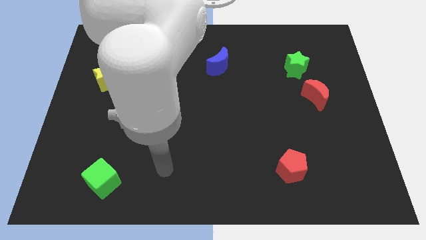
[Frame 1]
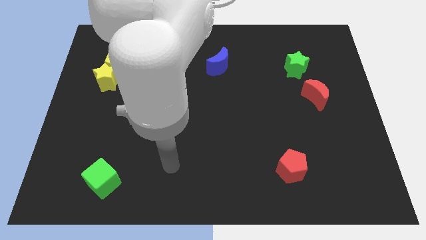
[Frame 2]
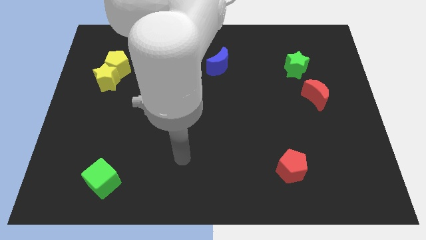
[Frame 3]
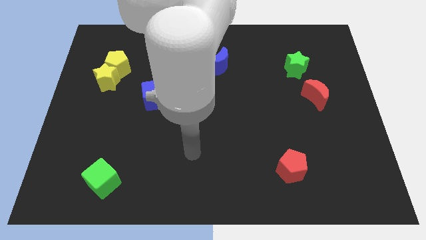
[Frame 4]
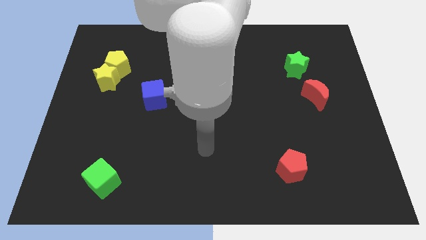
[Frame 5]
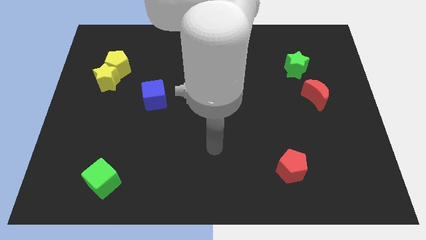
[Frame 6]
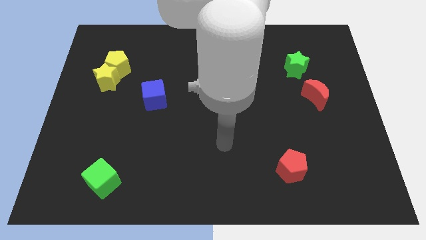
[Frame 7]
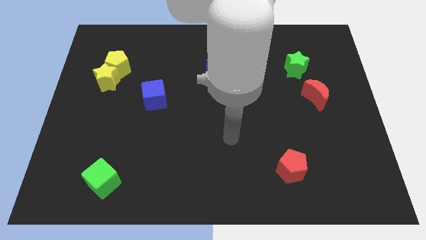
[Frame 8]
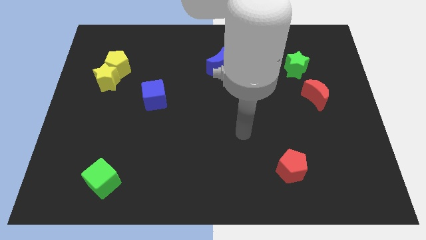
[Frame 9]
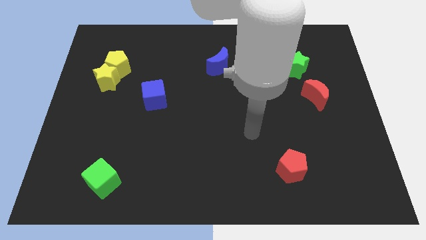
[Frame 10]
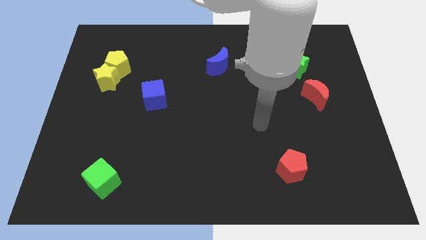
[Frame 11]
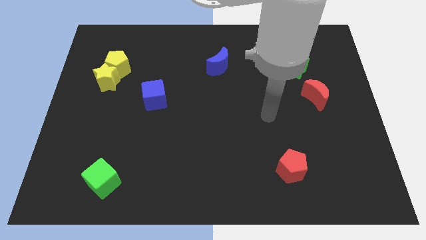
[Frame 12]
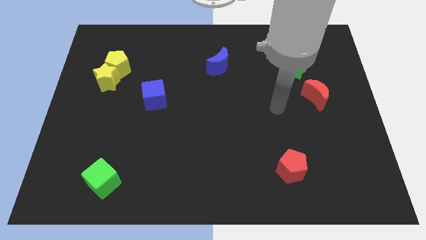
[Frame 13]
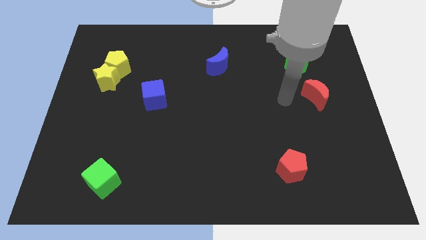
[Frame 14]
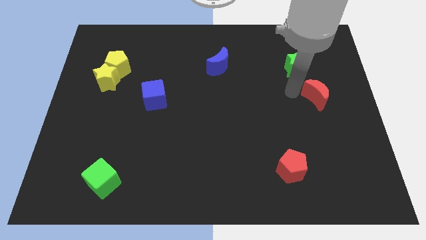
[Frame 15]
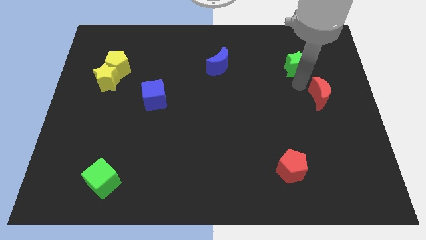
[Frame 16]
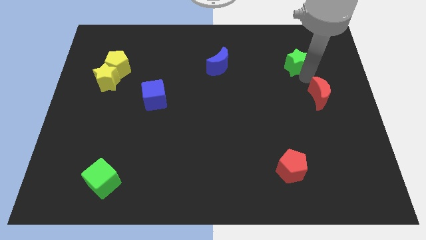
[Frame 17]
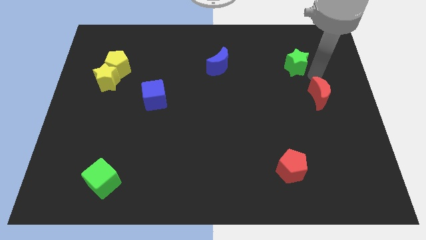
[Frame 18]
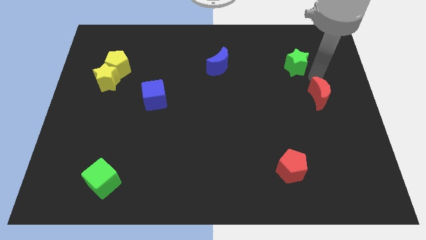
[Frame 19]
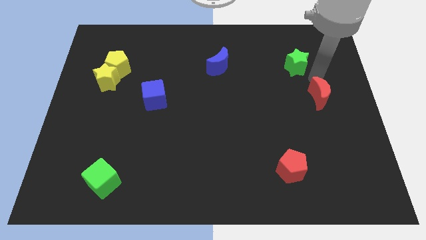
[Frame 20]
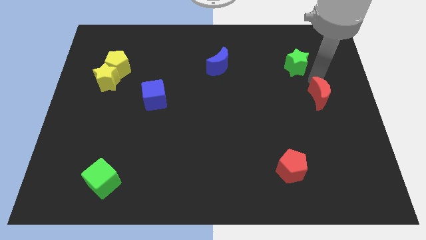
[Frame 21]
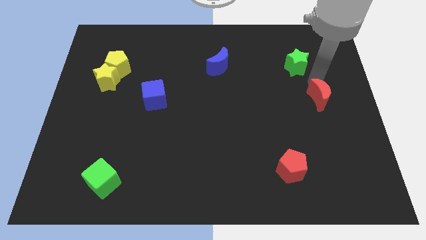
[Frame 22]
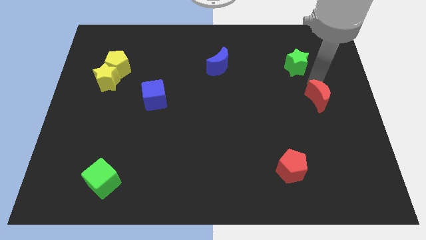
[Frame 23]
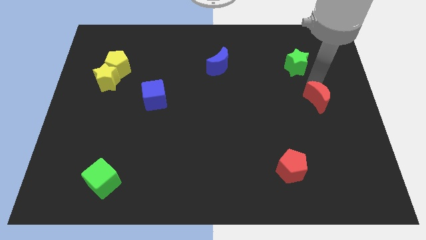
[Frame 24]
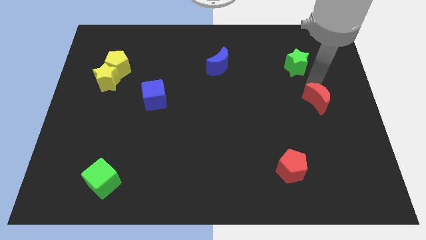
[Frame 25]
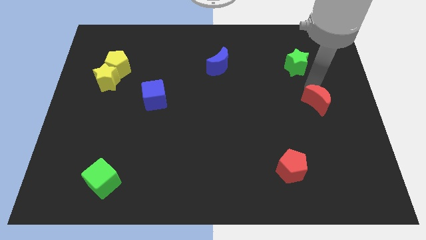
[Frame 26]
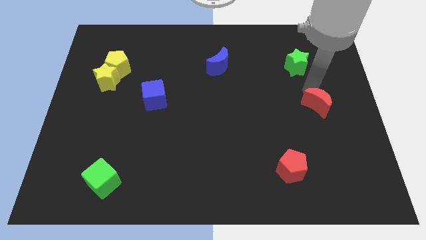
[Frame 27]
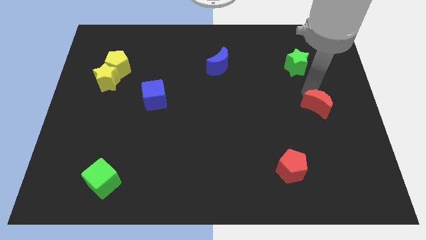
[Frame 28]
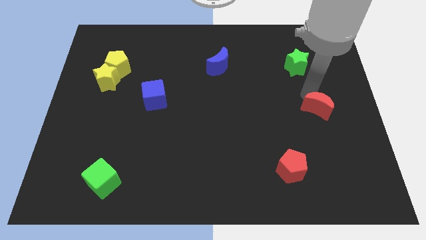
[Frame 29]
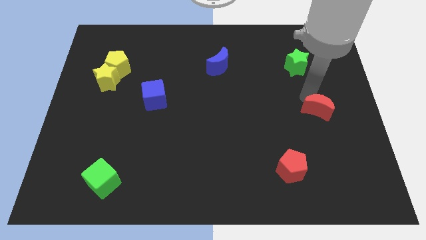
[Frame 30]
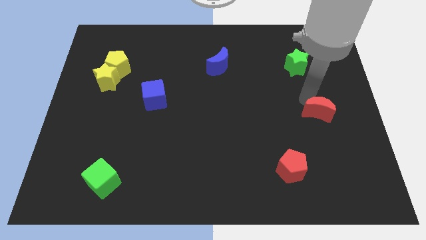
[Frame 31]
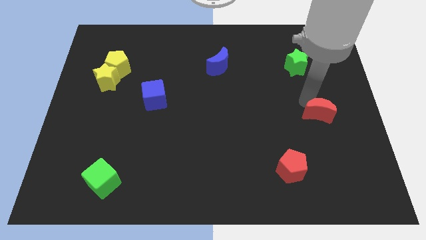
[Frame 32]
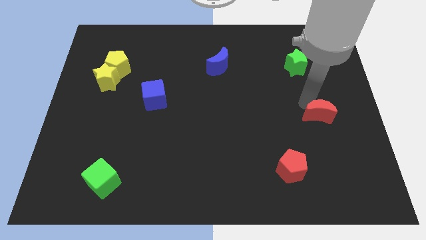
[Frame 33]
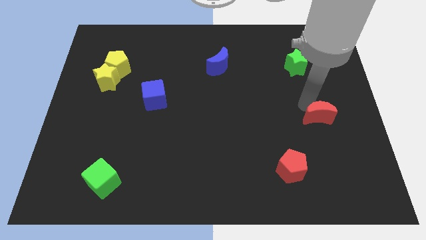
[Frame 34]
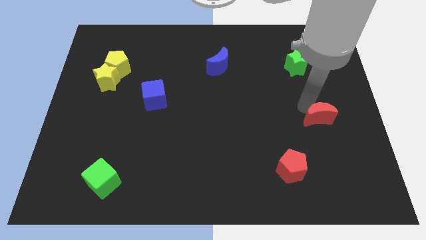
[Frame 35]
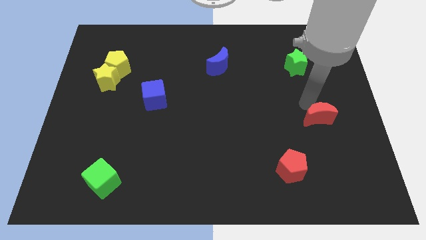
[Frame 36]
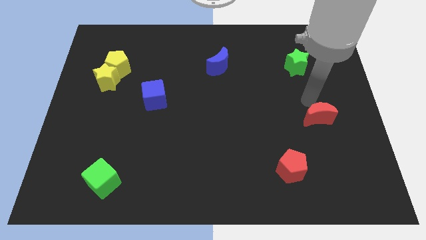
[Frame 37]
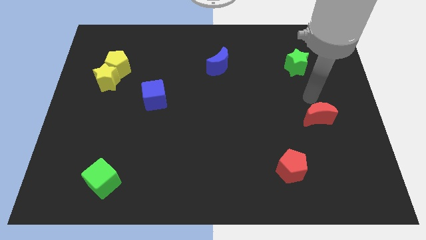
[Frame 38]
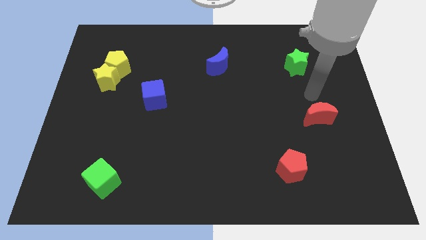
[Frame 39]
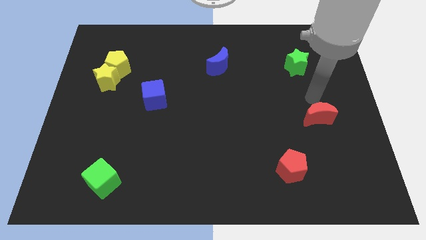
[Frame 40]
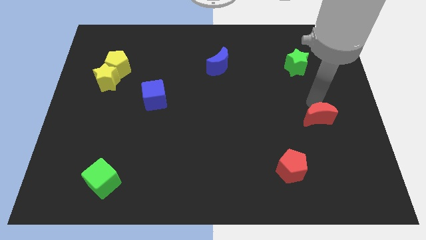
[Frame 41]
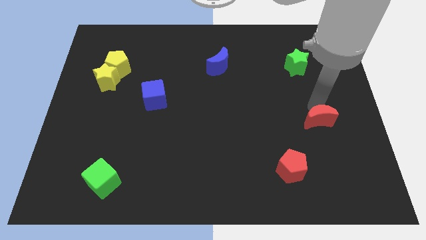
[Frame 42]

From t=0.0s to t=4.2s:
slightly push the red moon down

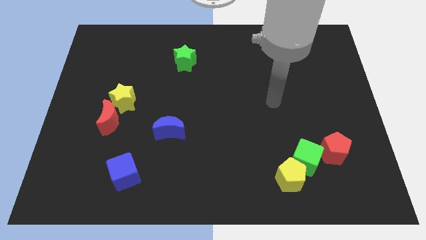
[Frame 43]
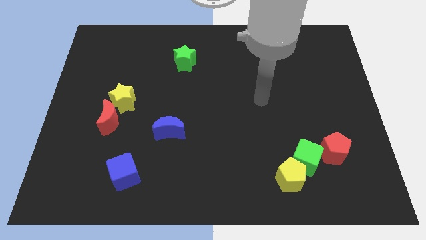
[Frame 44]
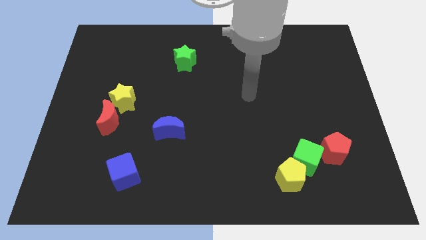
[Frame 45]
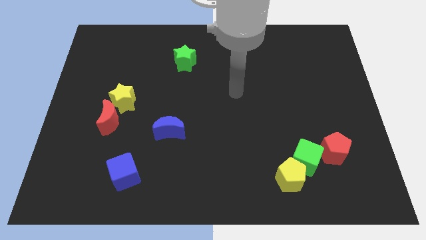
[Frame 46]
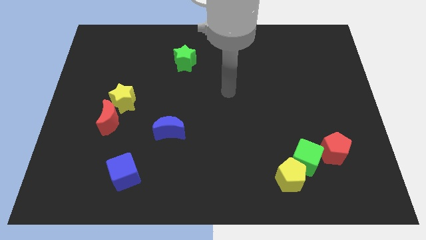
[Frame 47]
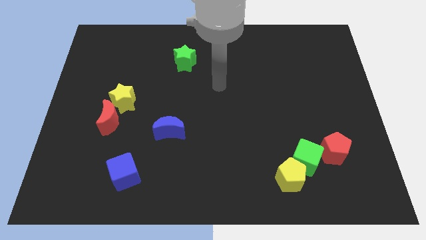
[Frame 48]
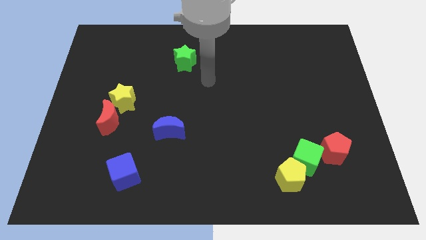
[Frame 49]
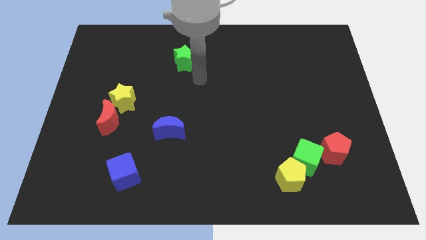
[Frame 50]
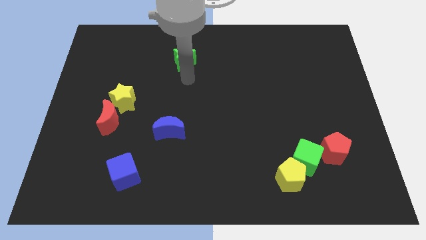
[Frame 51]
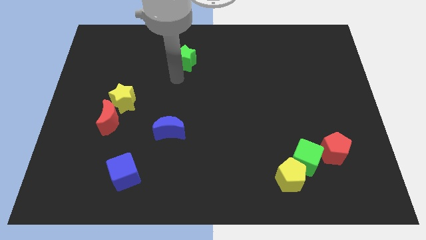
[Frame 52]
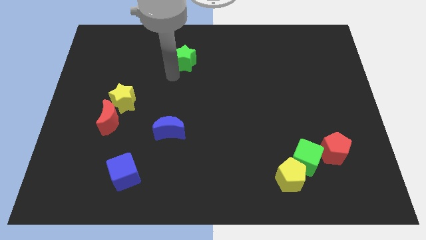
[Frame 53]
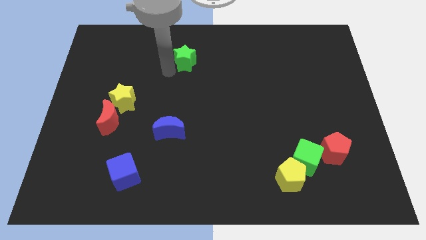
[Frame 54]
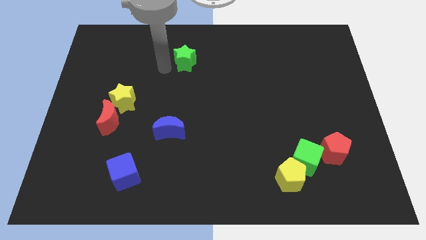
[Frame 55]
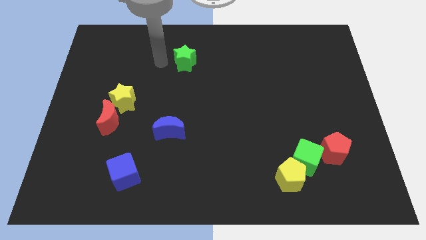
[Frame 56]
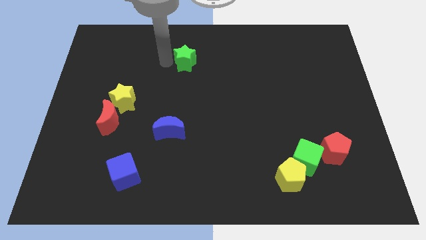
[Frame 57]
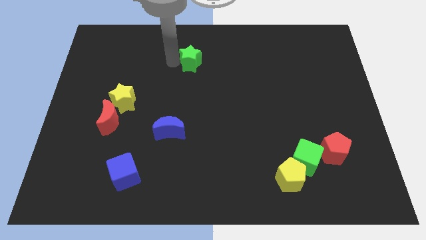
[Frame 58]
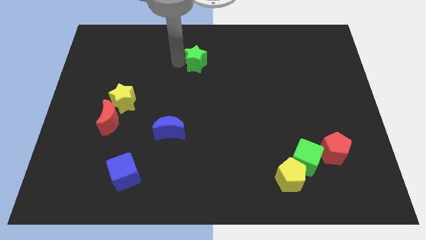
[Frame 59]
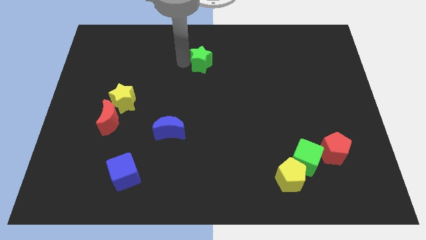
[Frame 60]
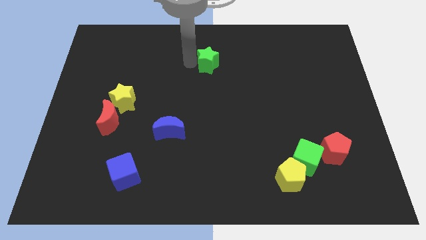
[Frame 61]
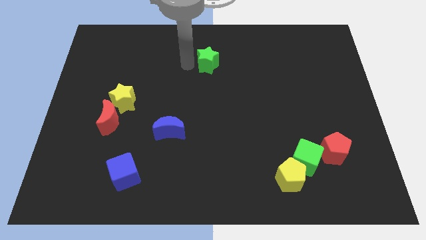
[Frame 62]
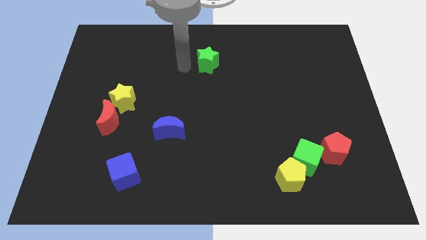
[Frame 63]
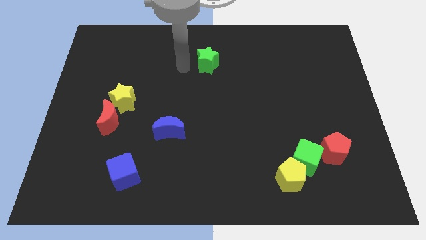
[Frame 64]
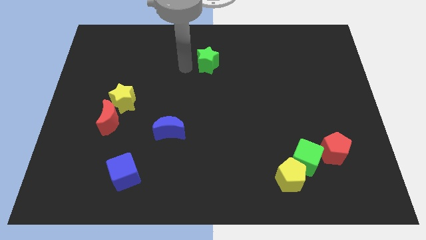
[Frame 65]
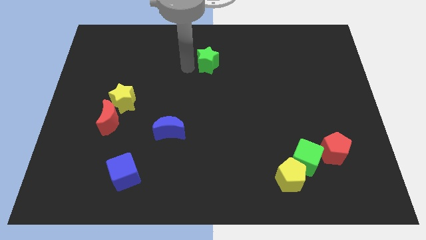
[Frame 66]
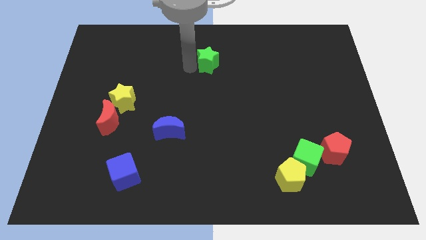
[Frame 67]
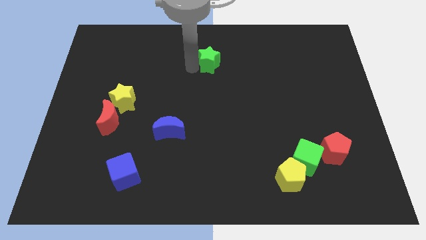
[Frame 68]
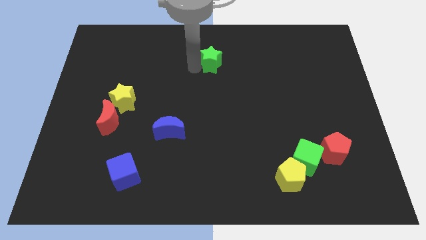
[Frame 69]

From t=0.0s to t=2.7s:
push the green star to the right a little bit

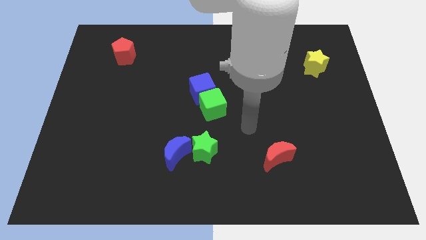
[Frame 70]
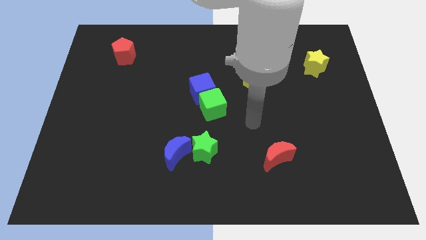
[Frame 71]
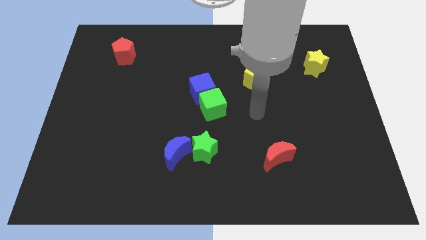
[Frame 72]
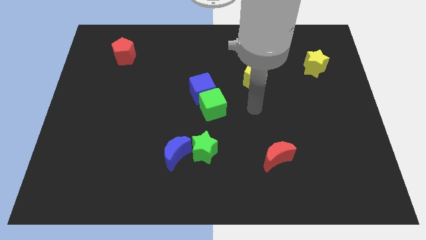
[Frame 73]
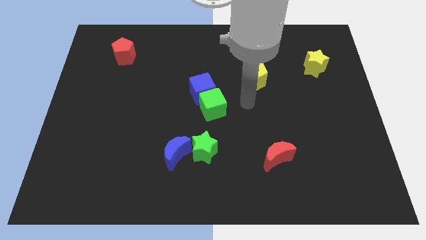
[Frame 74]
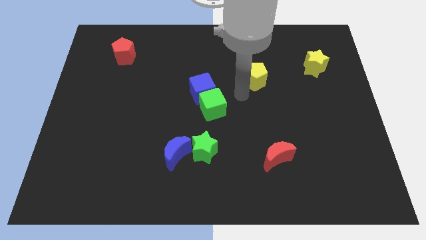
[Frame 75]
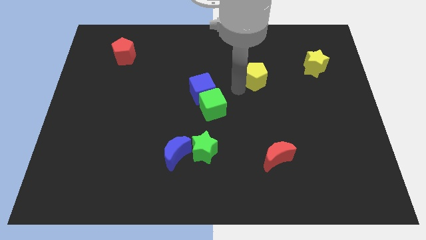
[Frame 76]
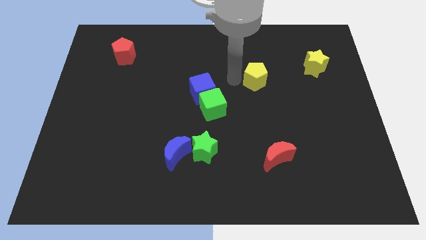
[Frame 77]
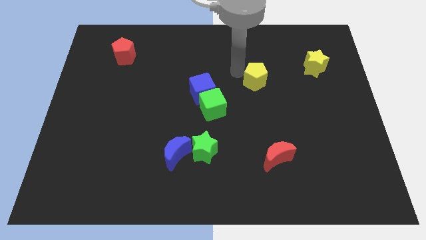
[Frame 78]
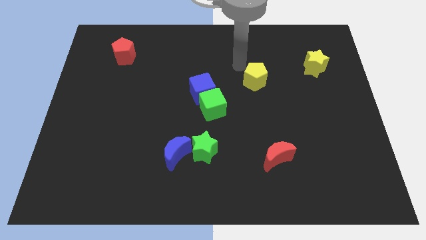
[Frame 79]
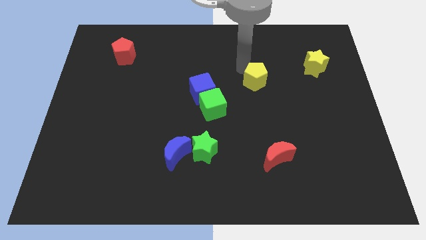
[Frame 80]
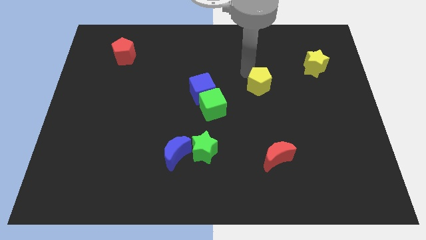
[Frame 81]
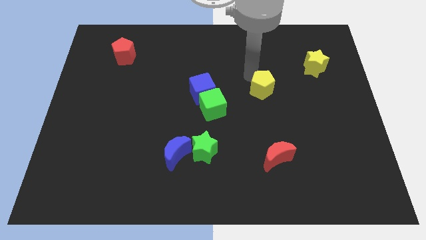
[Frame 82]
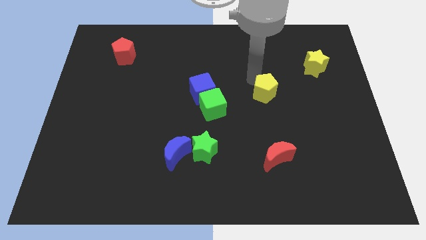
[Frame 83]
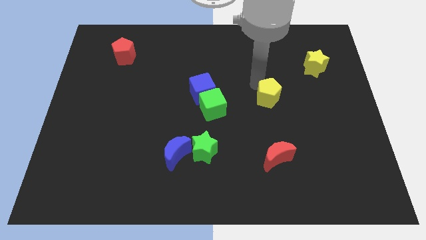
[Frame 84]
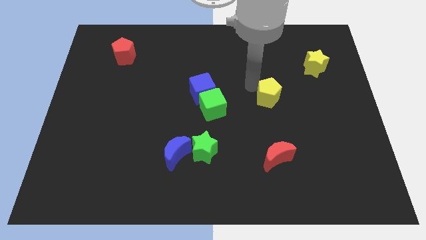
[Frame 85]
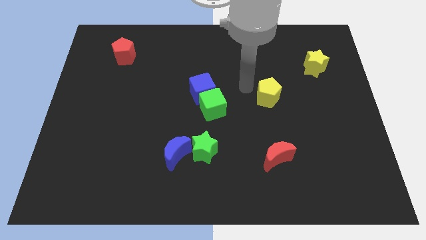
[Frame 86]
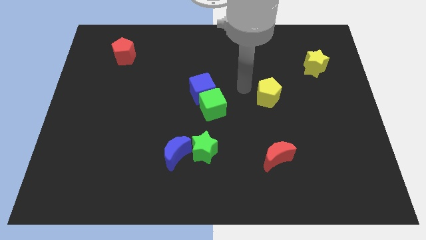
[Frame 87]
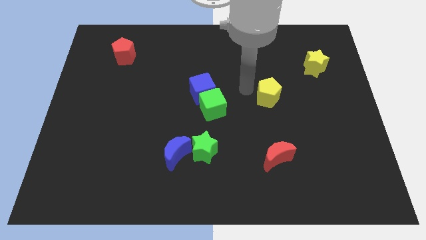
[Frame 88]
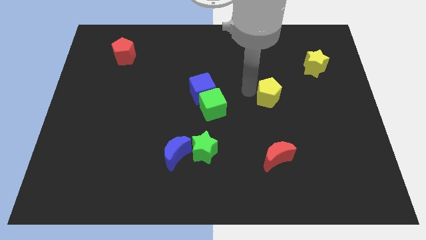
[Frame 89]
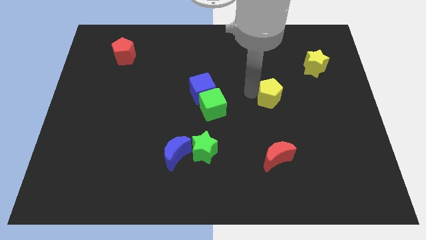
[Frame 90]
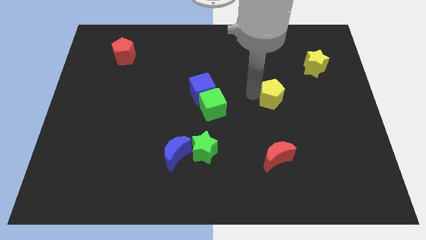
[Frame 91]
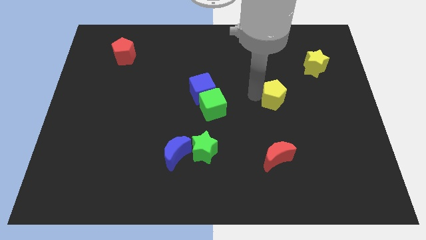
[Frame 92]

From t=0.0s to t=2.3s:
slide the yellow pentagon somewhat down and right
